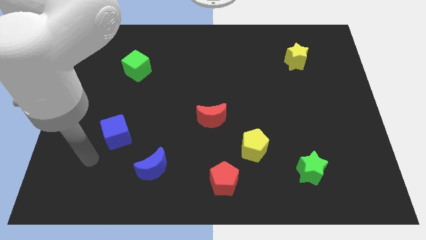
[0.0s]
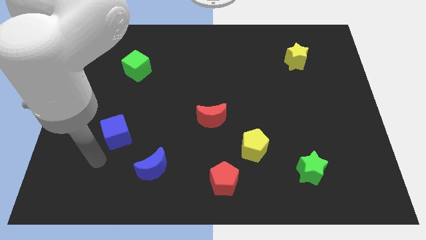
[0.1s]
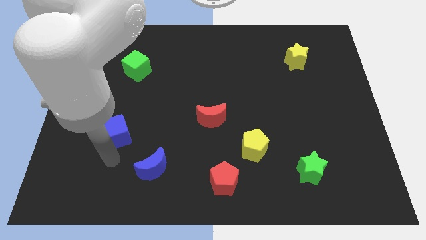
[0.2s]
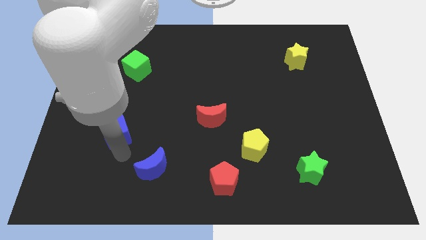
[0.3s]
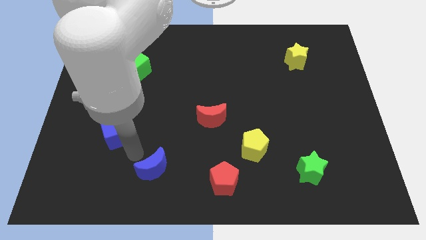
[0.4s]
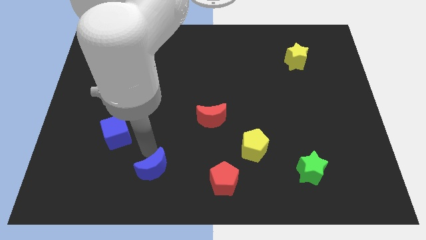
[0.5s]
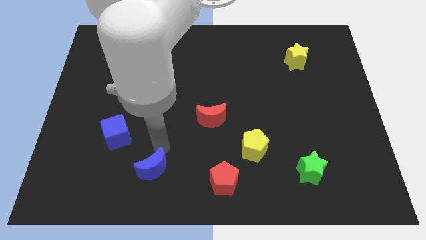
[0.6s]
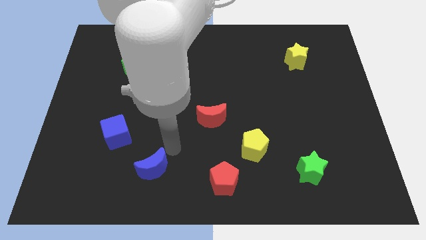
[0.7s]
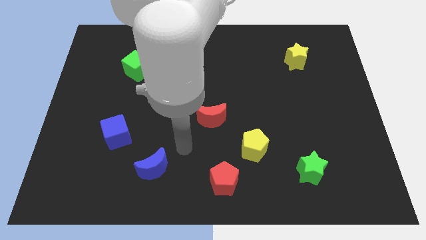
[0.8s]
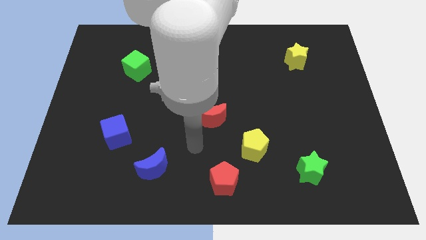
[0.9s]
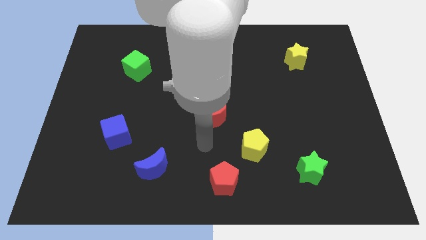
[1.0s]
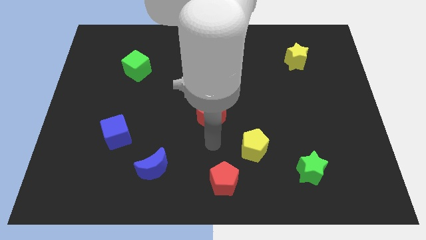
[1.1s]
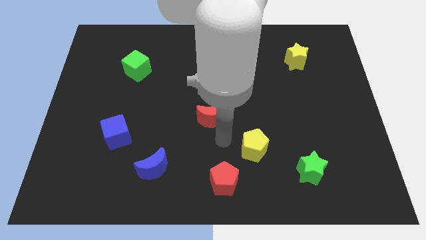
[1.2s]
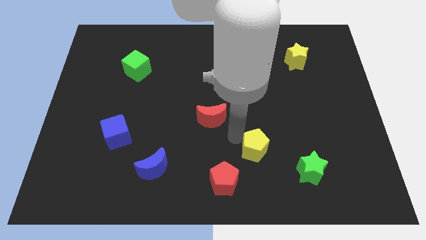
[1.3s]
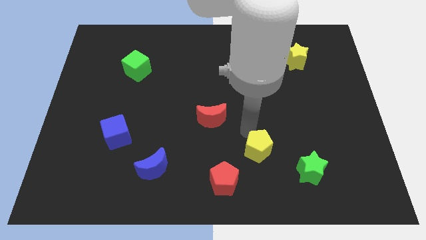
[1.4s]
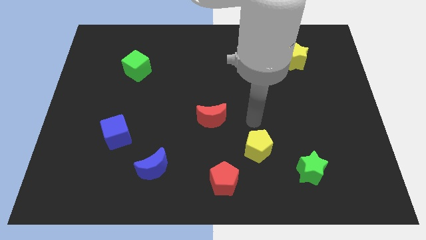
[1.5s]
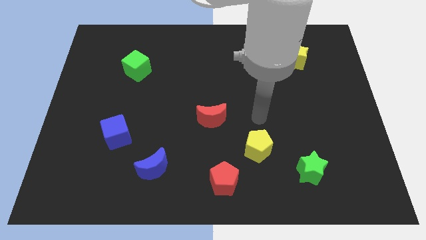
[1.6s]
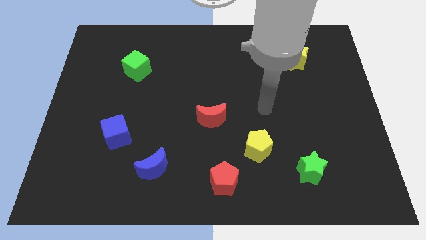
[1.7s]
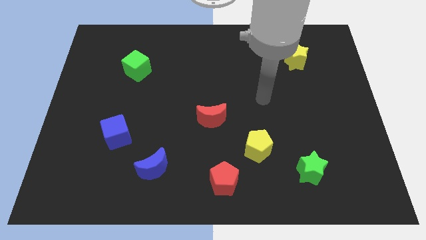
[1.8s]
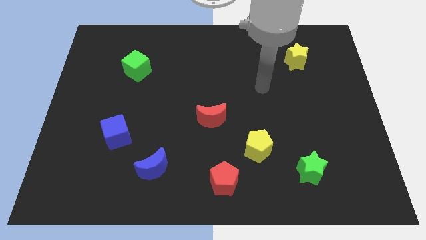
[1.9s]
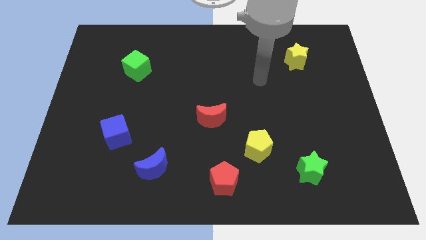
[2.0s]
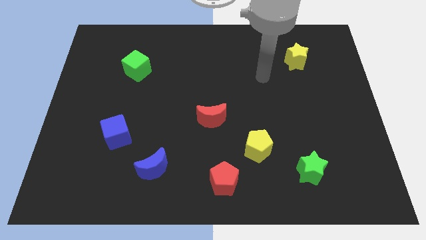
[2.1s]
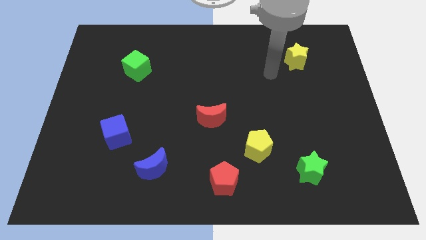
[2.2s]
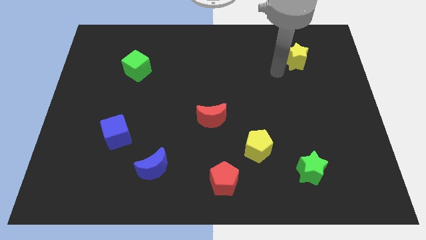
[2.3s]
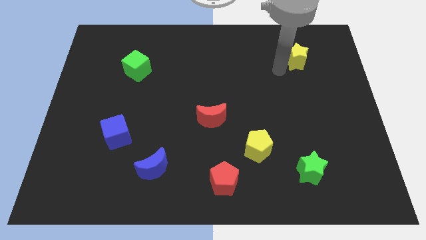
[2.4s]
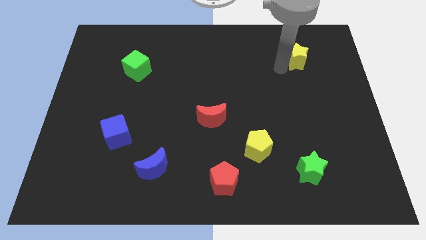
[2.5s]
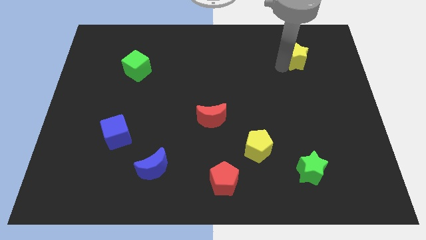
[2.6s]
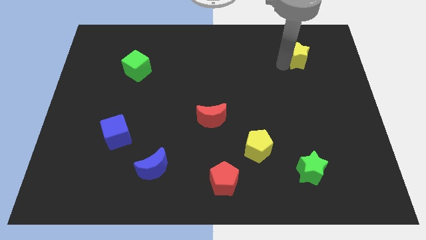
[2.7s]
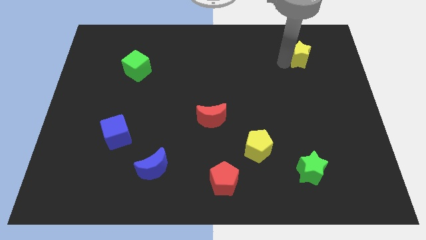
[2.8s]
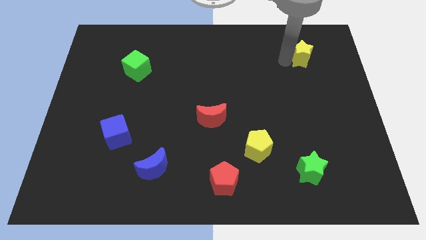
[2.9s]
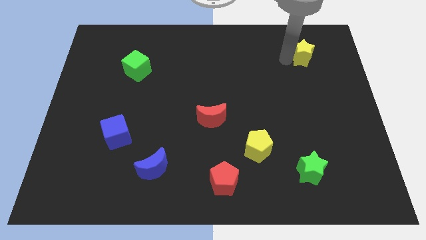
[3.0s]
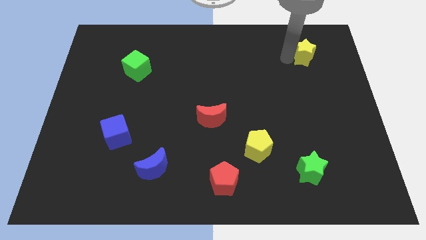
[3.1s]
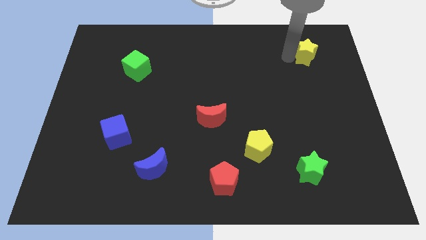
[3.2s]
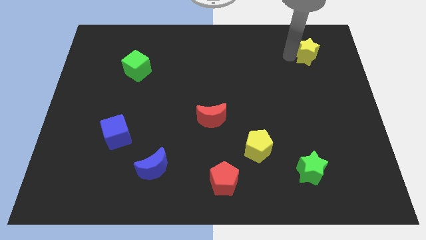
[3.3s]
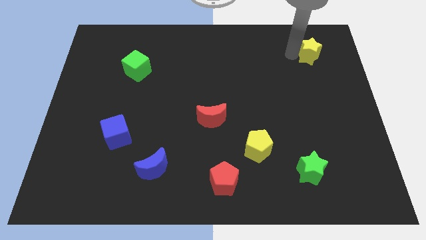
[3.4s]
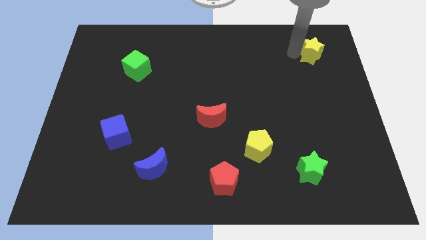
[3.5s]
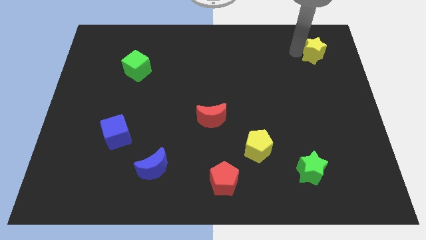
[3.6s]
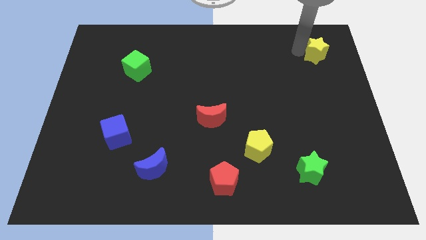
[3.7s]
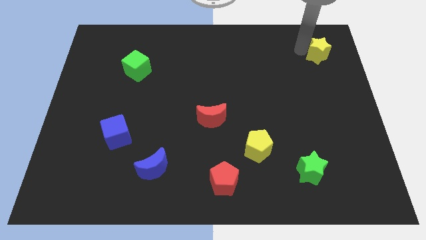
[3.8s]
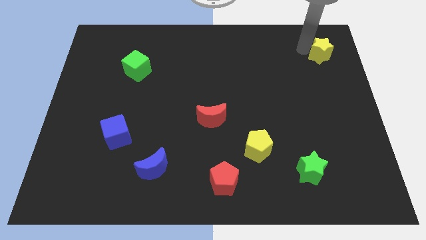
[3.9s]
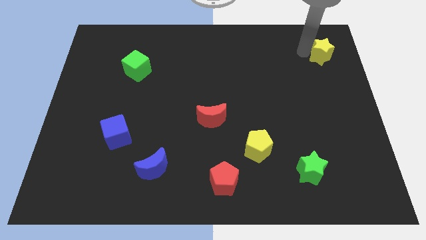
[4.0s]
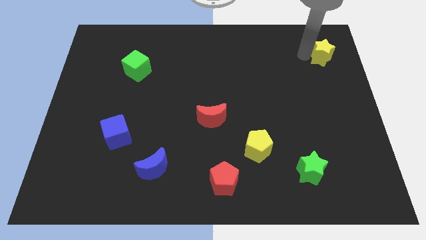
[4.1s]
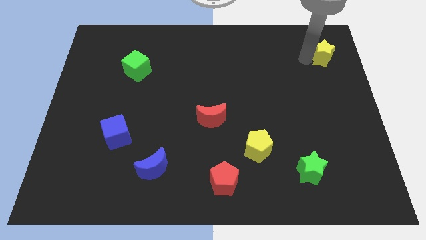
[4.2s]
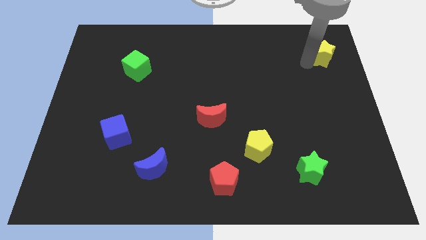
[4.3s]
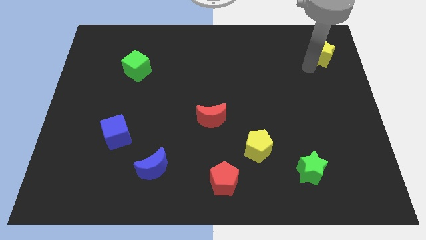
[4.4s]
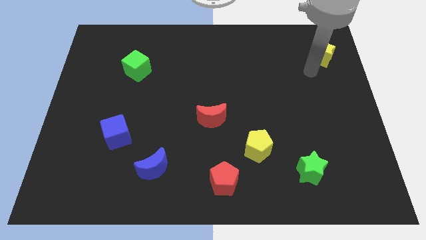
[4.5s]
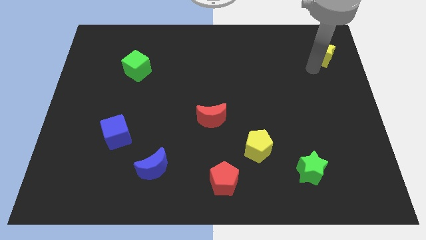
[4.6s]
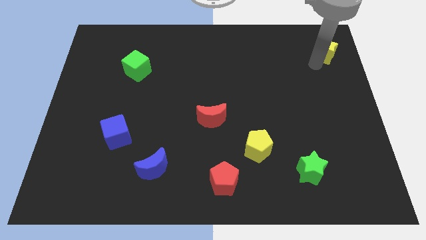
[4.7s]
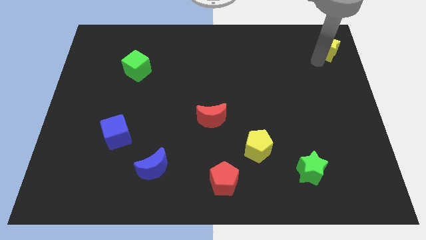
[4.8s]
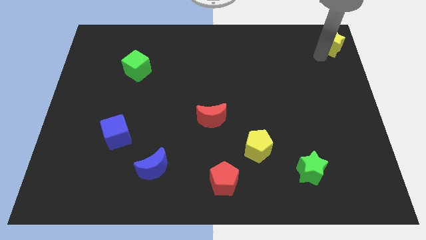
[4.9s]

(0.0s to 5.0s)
slide the yellow star to the top right of the board
